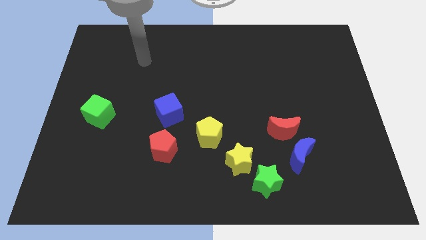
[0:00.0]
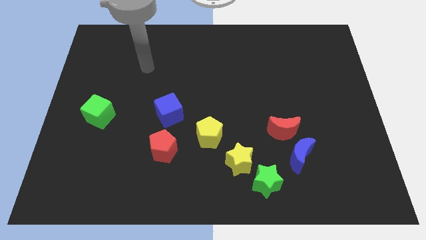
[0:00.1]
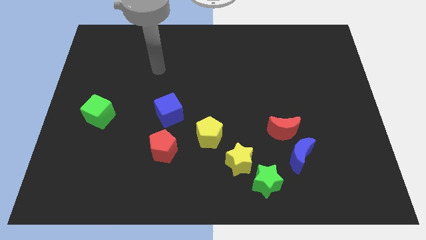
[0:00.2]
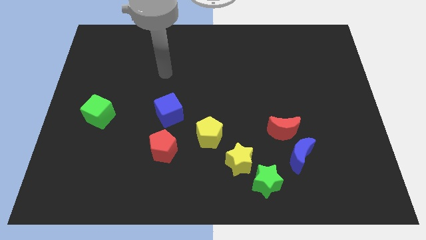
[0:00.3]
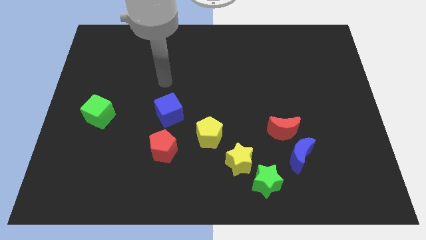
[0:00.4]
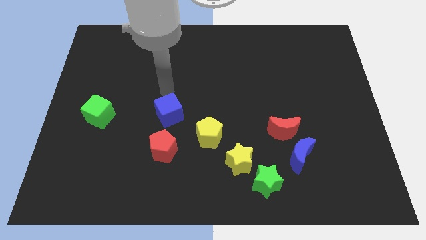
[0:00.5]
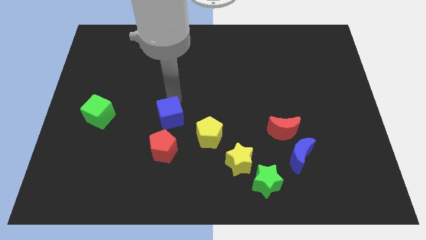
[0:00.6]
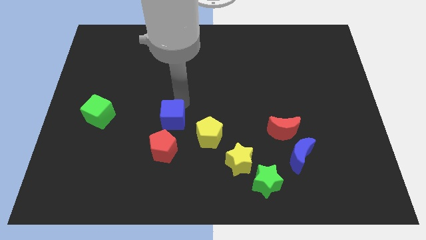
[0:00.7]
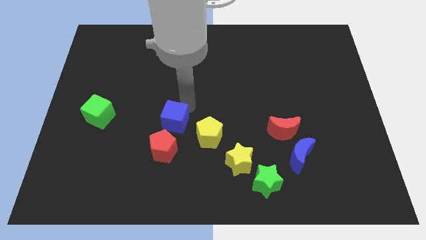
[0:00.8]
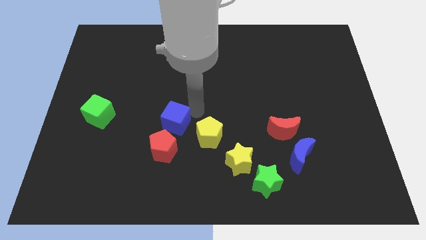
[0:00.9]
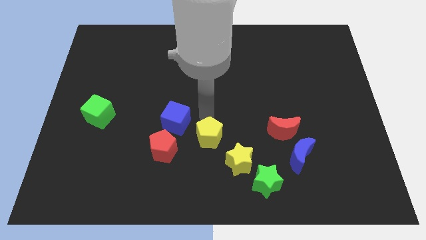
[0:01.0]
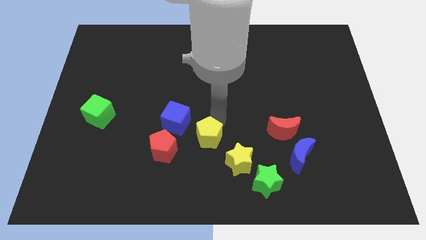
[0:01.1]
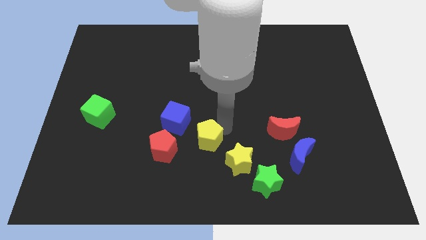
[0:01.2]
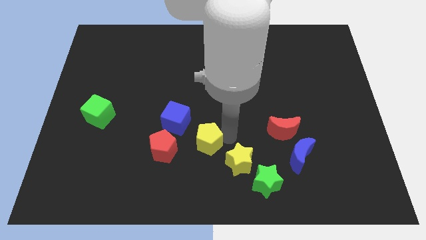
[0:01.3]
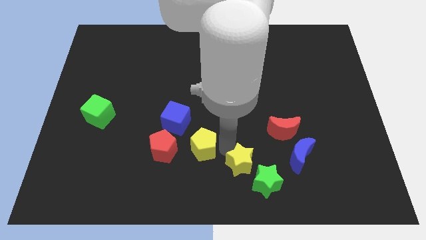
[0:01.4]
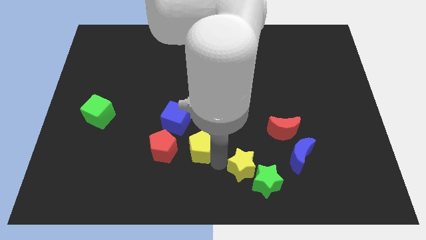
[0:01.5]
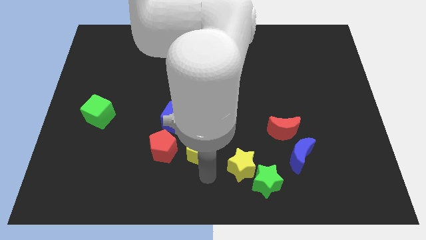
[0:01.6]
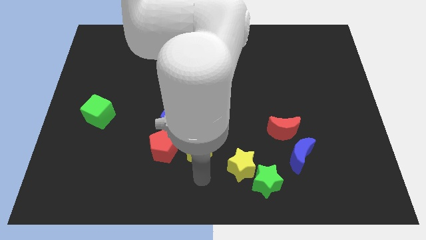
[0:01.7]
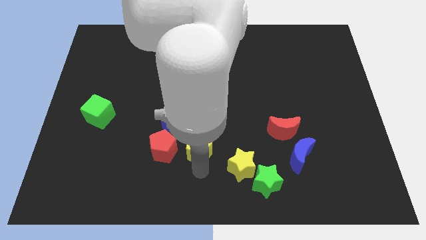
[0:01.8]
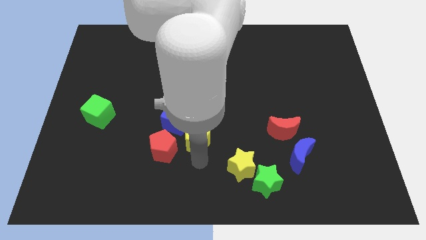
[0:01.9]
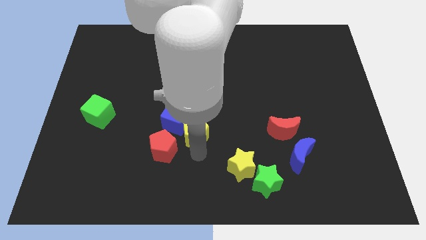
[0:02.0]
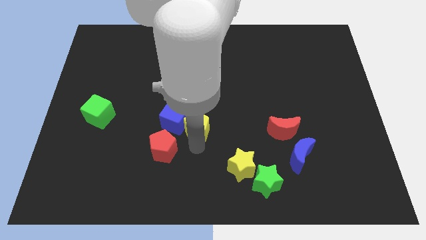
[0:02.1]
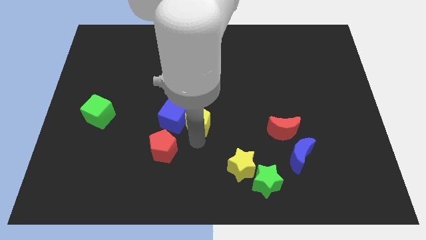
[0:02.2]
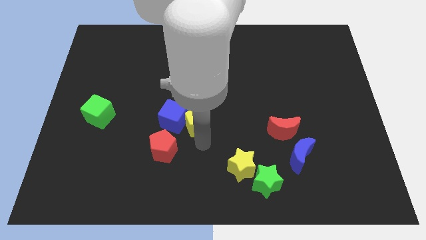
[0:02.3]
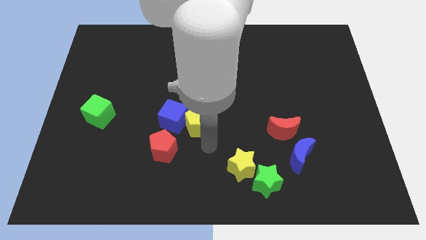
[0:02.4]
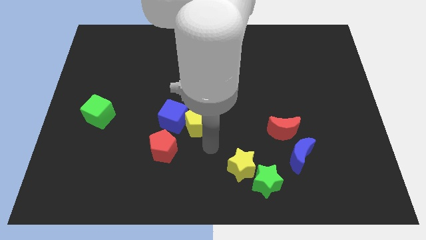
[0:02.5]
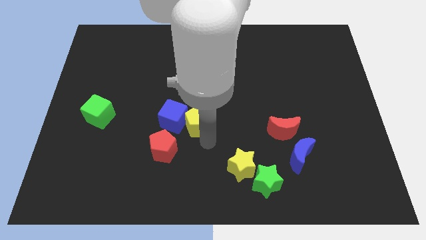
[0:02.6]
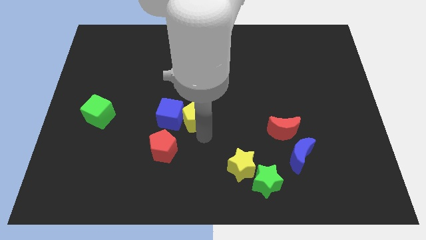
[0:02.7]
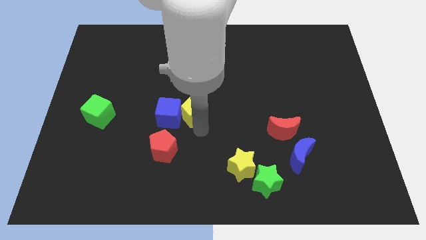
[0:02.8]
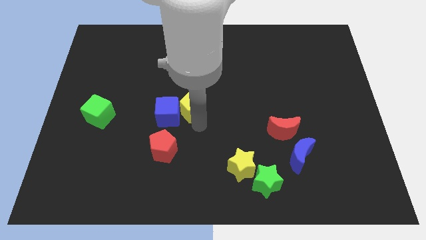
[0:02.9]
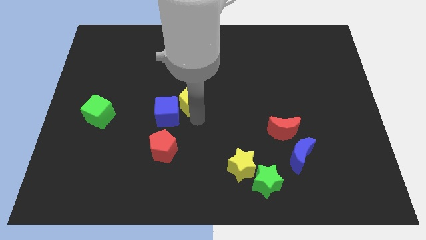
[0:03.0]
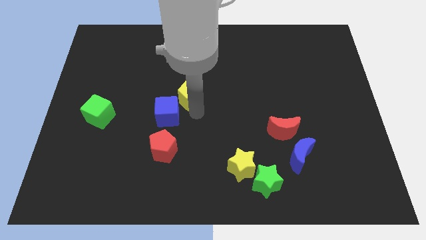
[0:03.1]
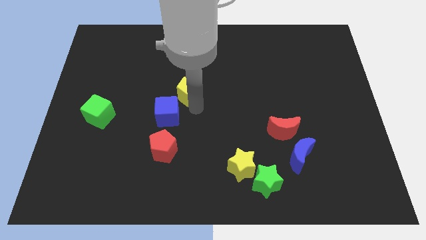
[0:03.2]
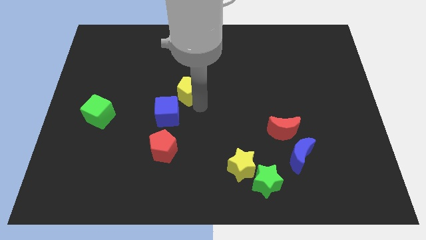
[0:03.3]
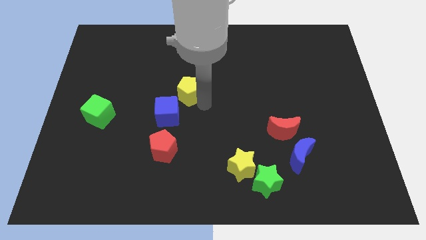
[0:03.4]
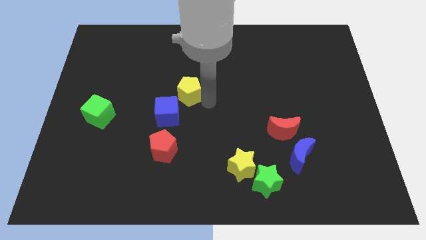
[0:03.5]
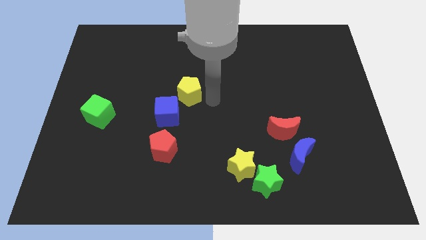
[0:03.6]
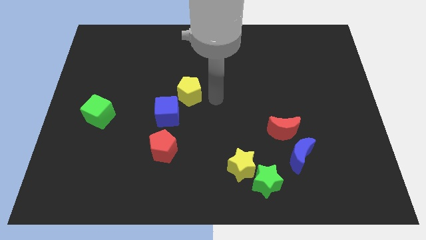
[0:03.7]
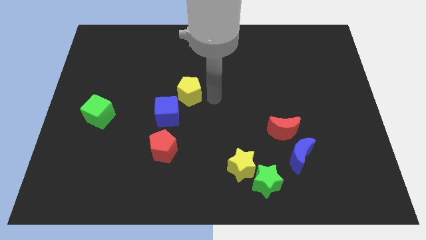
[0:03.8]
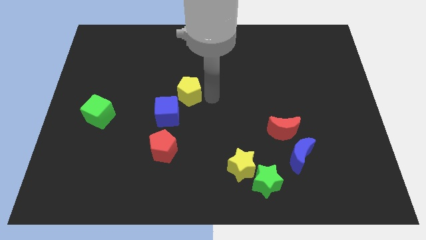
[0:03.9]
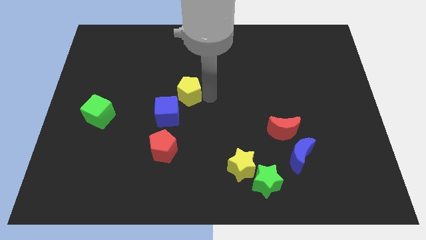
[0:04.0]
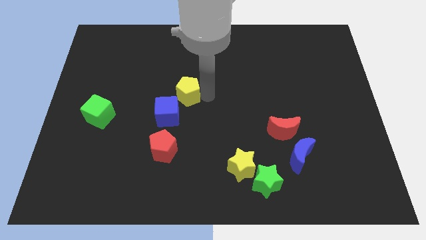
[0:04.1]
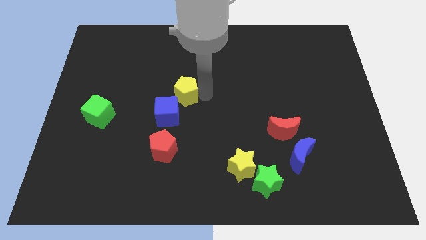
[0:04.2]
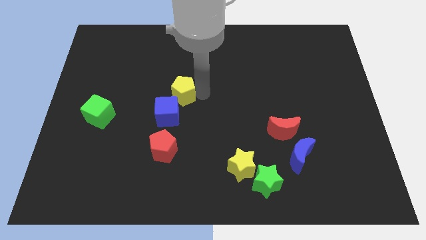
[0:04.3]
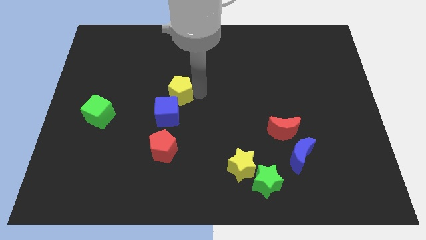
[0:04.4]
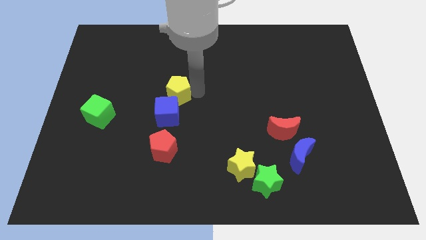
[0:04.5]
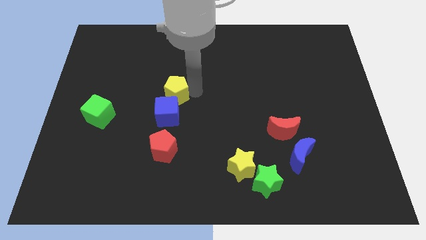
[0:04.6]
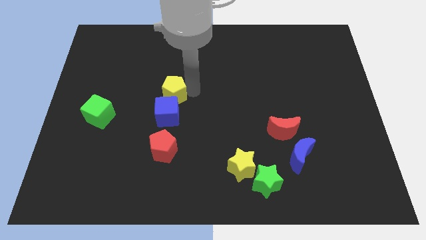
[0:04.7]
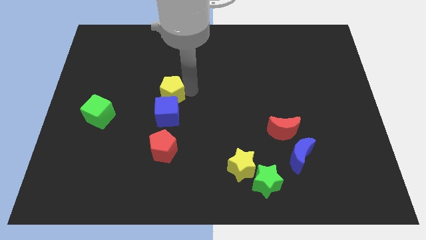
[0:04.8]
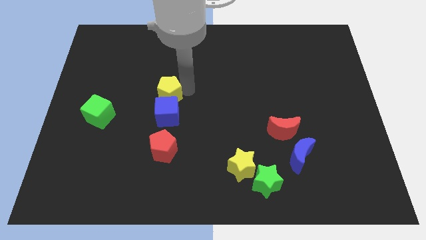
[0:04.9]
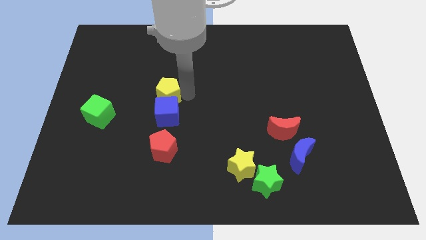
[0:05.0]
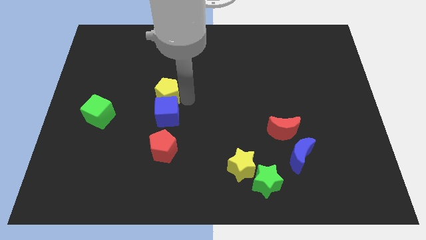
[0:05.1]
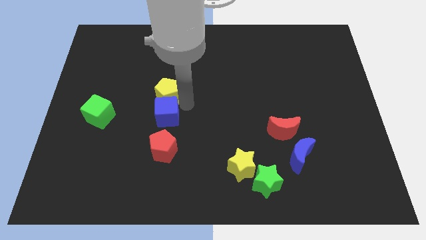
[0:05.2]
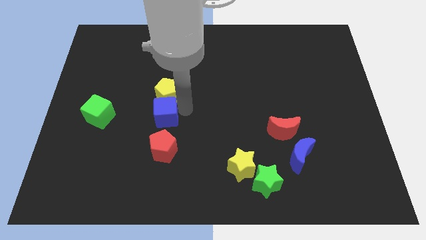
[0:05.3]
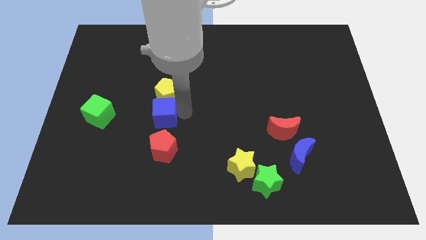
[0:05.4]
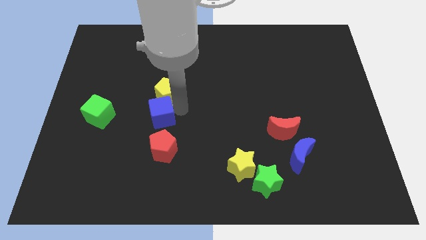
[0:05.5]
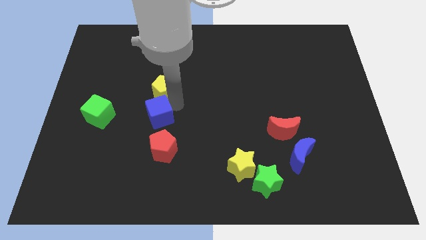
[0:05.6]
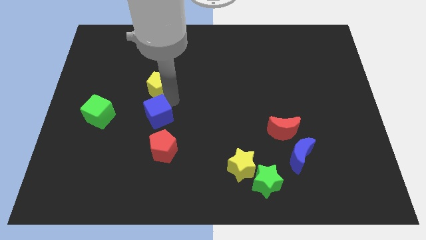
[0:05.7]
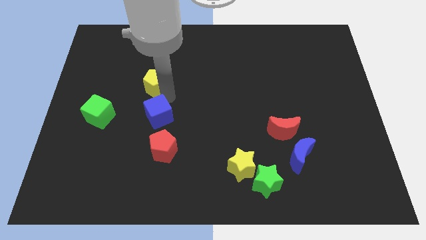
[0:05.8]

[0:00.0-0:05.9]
slide the yellow pentagon upwards and left

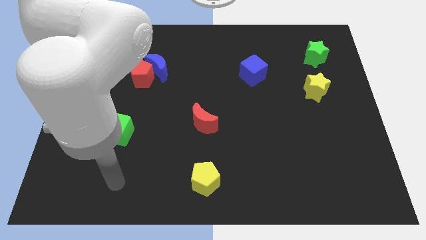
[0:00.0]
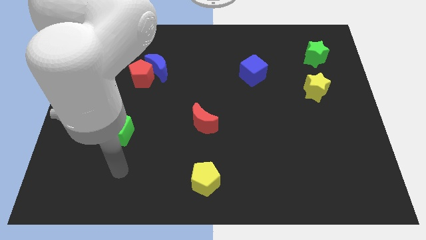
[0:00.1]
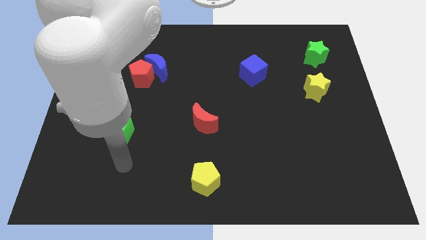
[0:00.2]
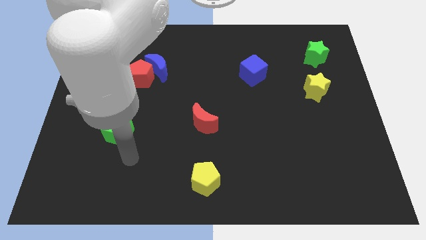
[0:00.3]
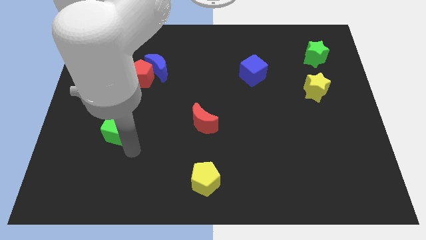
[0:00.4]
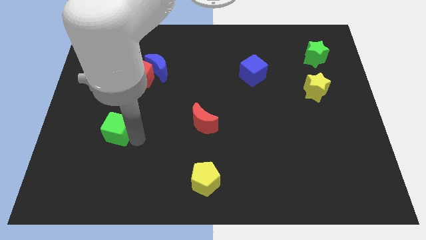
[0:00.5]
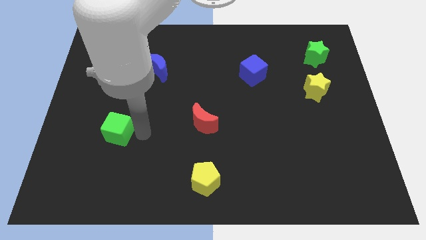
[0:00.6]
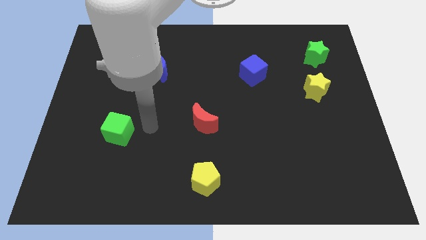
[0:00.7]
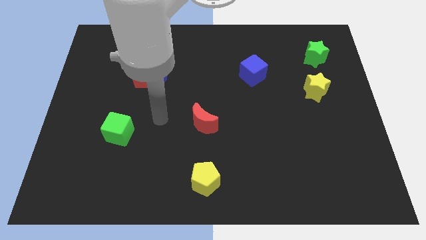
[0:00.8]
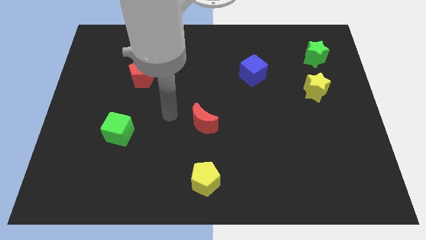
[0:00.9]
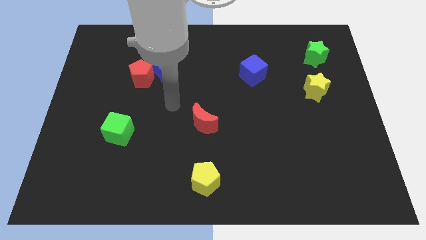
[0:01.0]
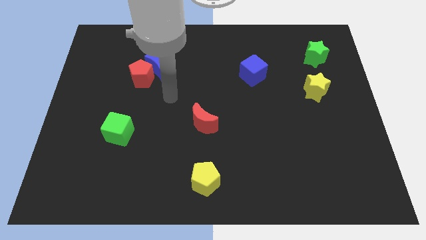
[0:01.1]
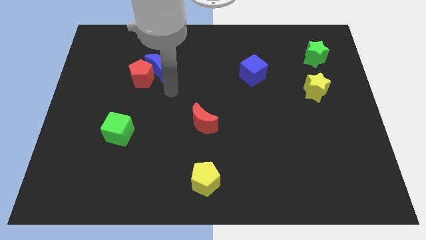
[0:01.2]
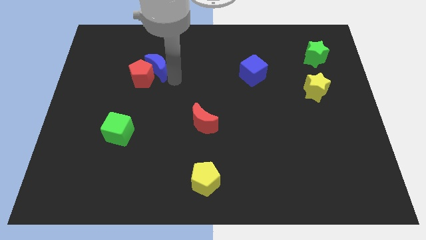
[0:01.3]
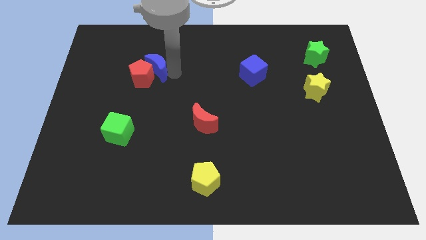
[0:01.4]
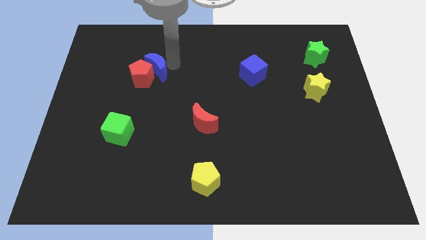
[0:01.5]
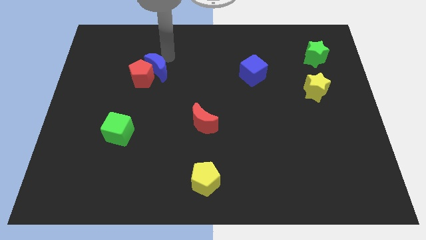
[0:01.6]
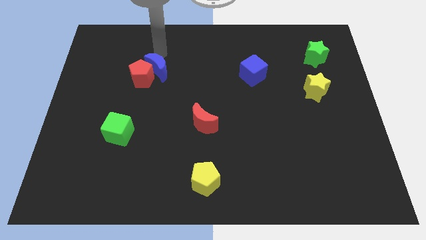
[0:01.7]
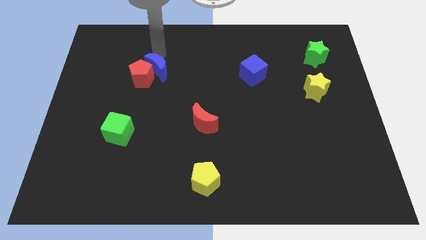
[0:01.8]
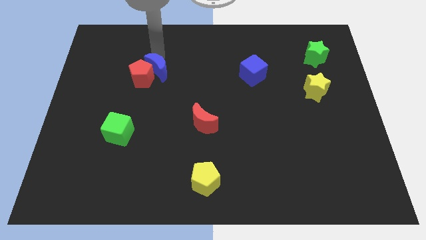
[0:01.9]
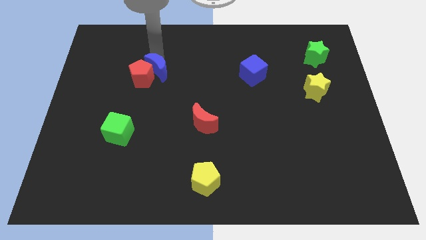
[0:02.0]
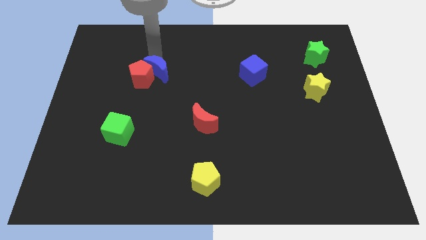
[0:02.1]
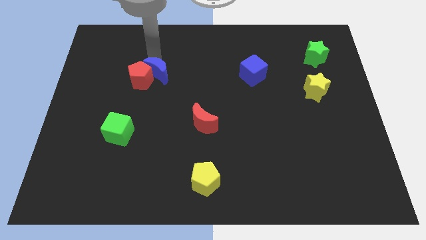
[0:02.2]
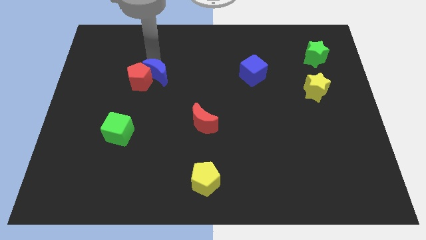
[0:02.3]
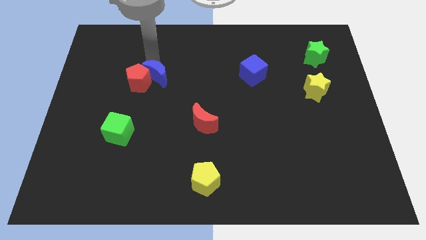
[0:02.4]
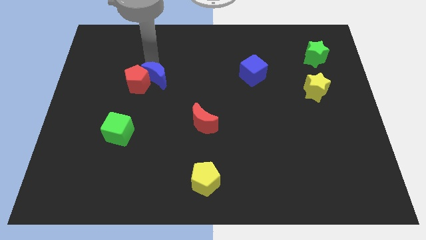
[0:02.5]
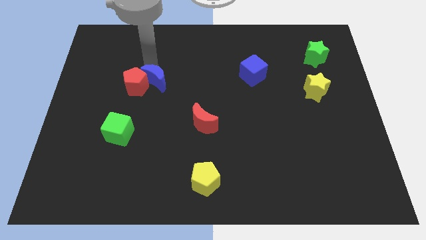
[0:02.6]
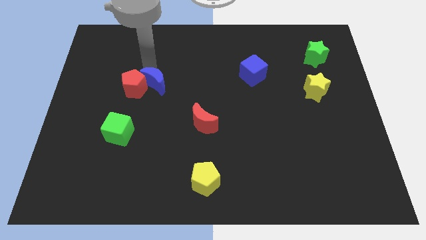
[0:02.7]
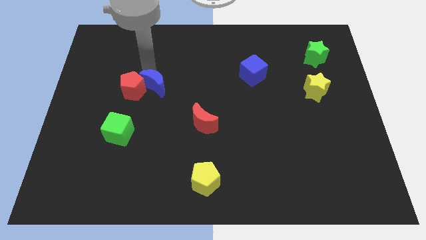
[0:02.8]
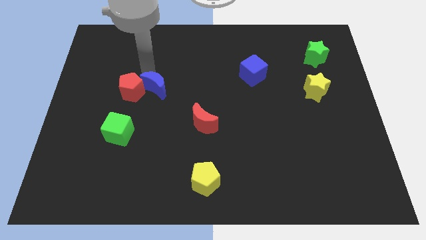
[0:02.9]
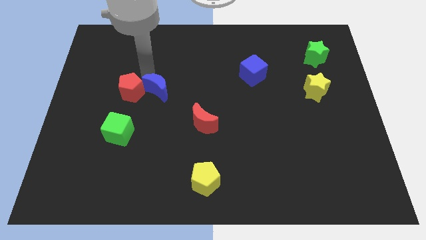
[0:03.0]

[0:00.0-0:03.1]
push the blue moon downwards slightly
